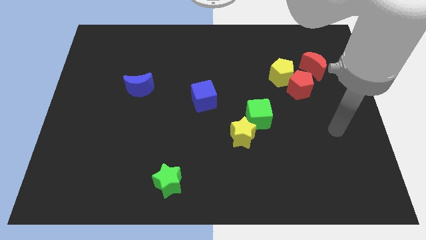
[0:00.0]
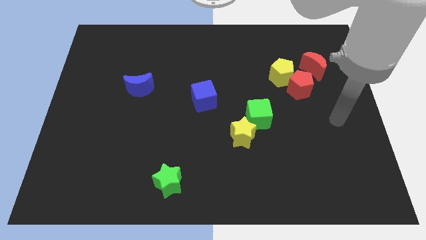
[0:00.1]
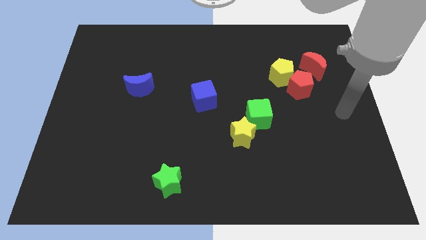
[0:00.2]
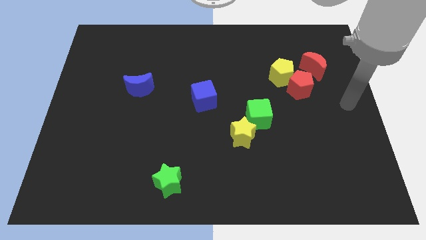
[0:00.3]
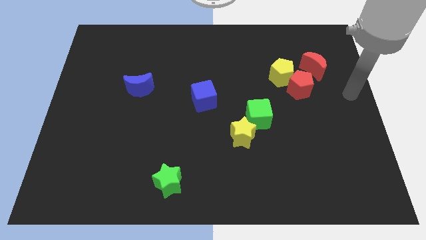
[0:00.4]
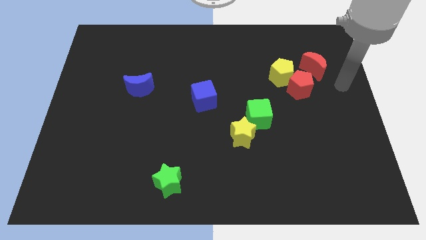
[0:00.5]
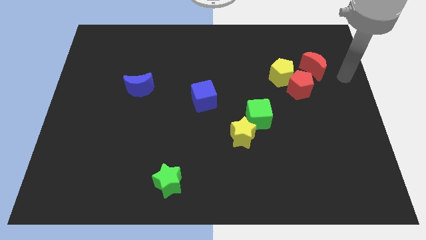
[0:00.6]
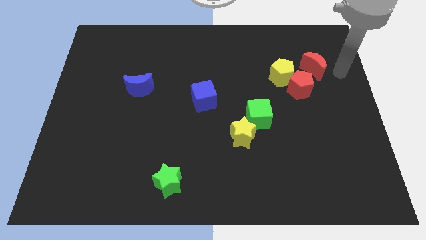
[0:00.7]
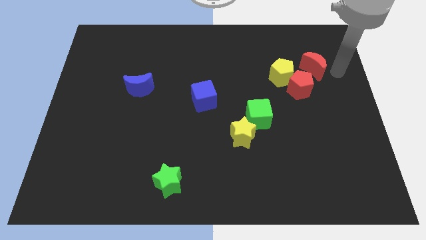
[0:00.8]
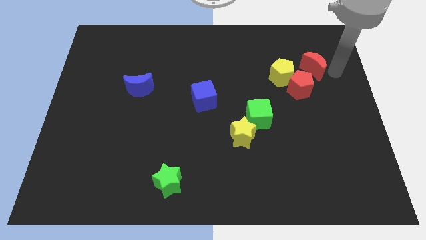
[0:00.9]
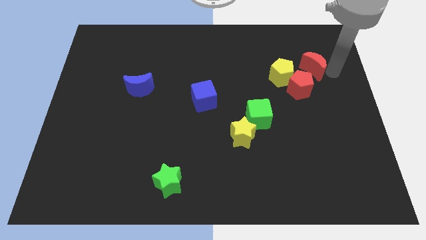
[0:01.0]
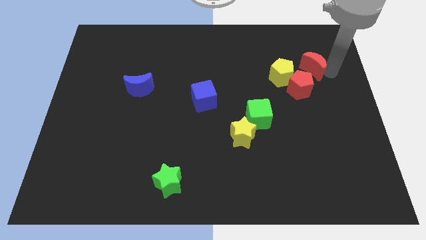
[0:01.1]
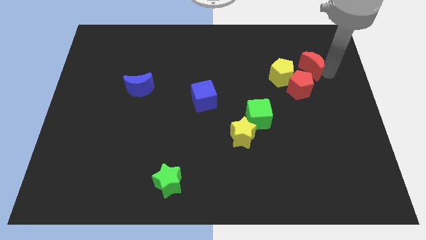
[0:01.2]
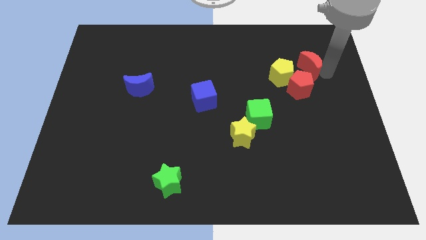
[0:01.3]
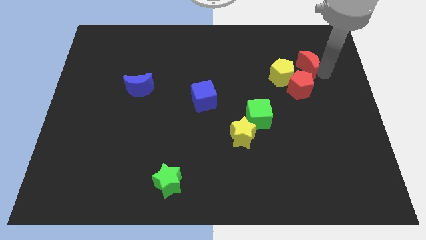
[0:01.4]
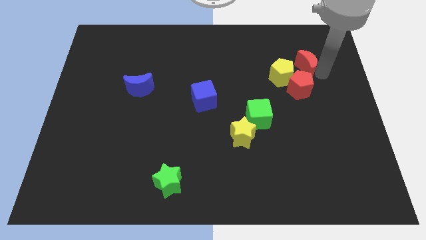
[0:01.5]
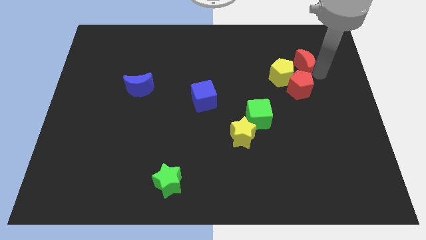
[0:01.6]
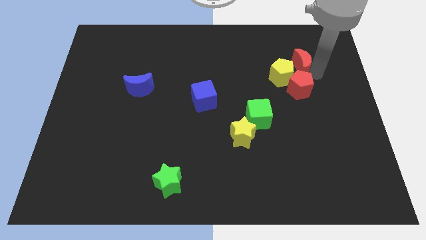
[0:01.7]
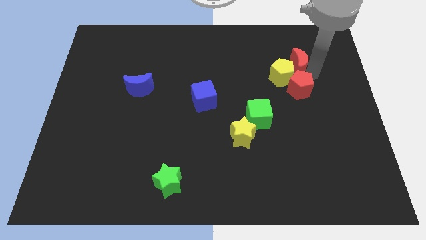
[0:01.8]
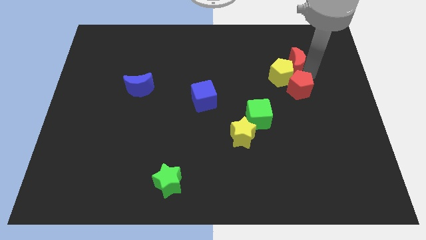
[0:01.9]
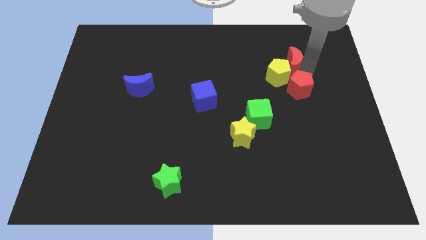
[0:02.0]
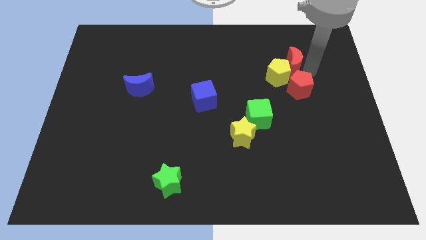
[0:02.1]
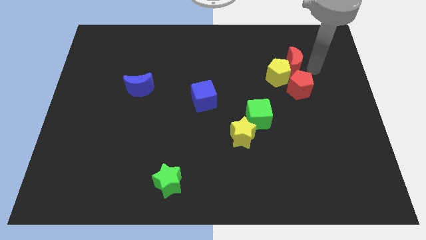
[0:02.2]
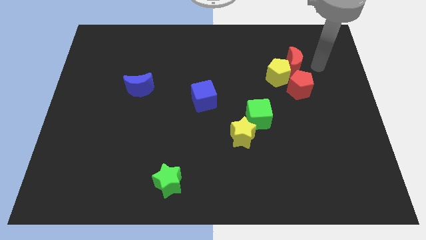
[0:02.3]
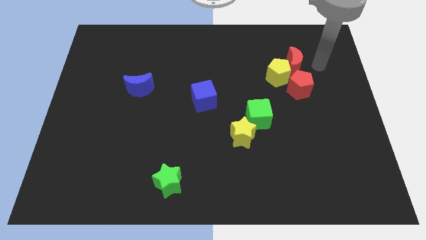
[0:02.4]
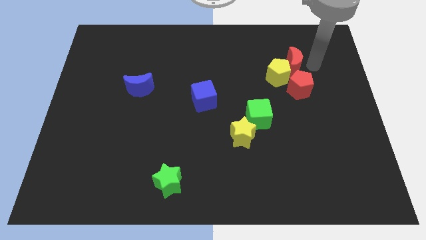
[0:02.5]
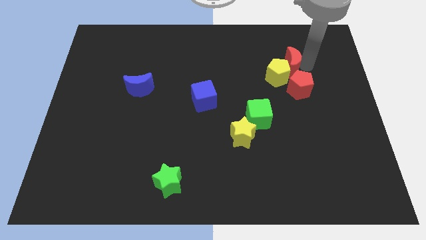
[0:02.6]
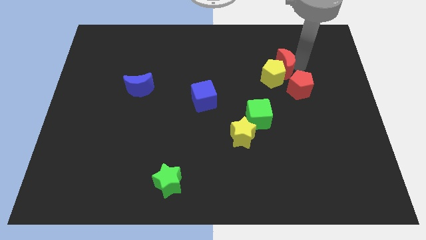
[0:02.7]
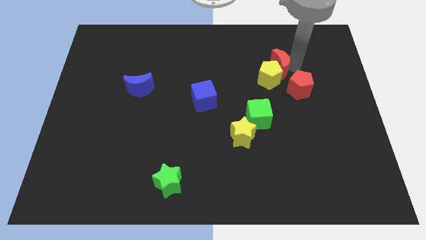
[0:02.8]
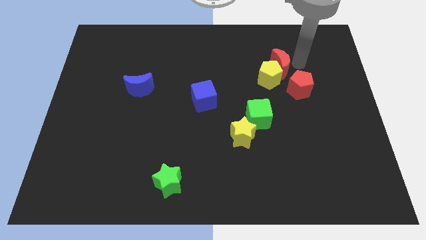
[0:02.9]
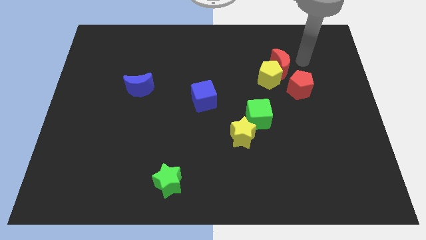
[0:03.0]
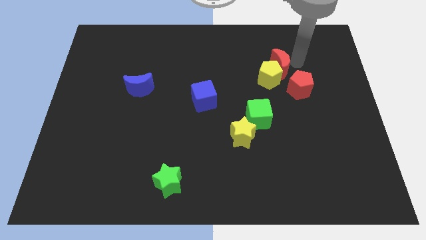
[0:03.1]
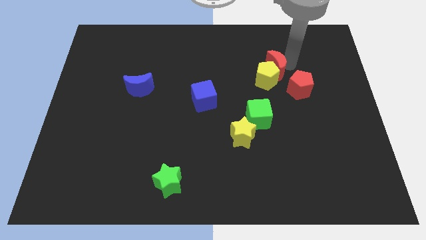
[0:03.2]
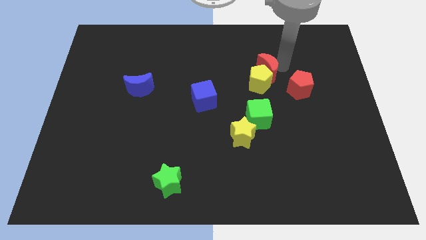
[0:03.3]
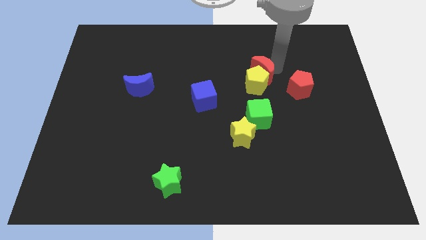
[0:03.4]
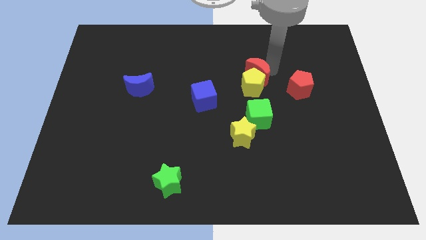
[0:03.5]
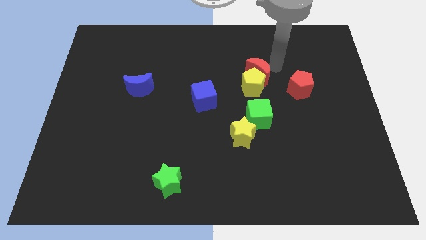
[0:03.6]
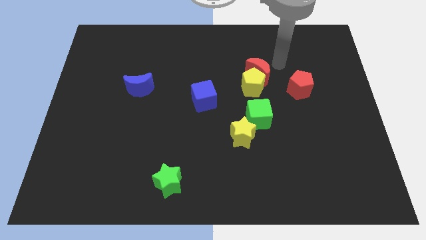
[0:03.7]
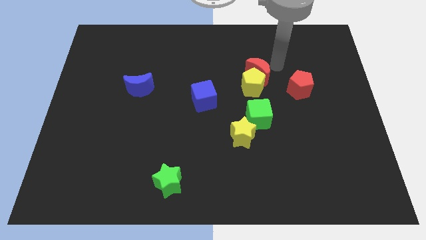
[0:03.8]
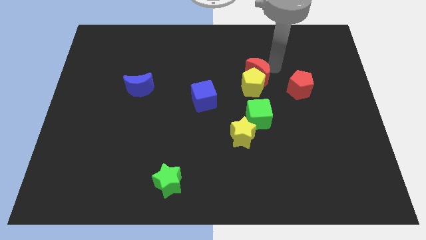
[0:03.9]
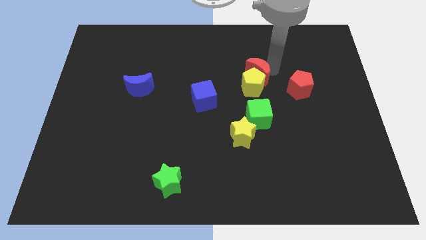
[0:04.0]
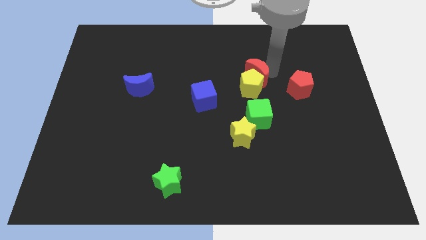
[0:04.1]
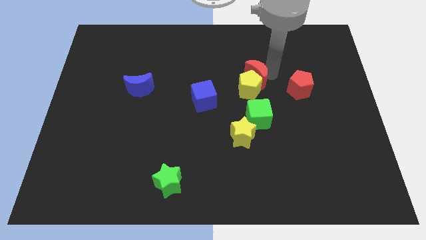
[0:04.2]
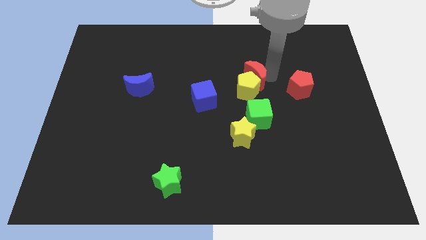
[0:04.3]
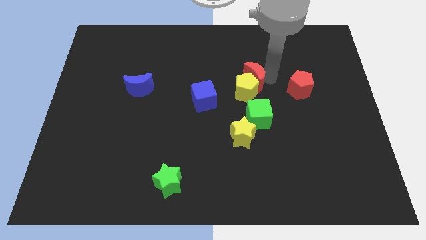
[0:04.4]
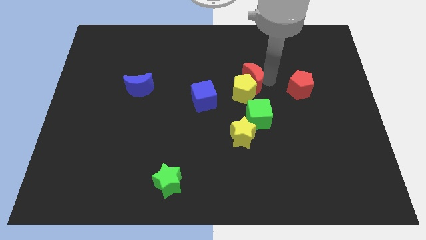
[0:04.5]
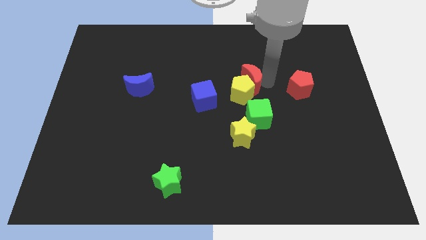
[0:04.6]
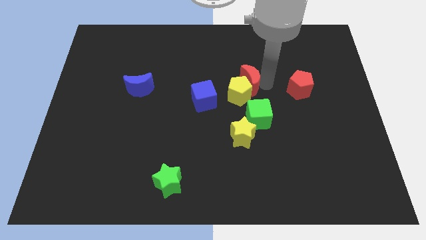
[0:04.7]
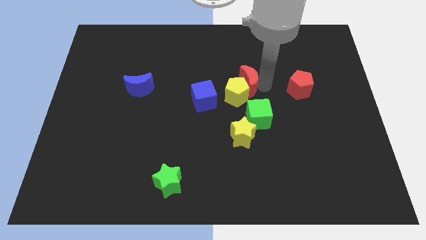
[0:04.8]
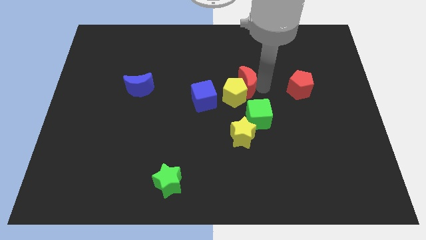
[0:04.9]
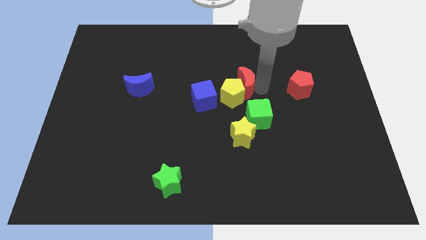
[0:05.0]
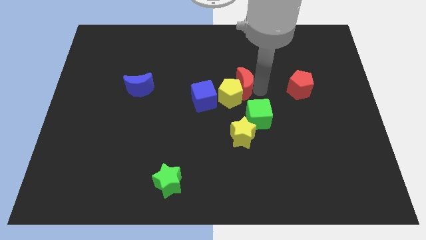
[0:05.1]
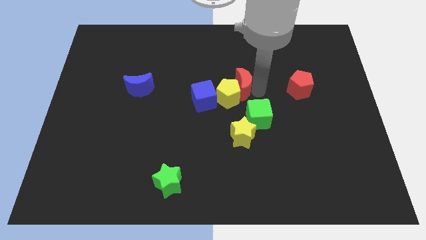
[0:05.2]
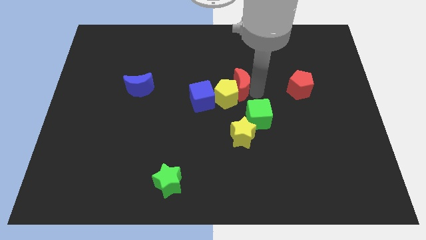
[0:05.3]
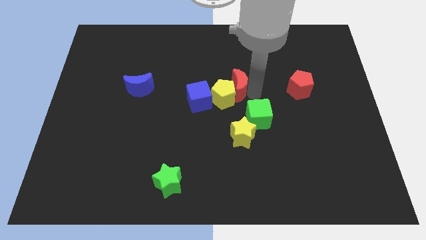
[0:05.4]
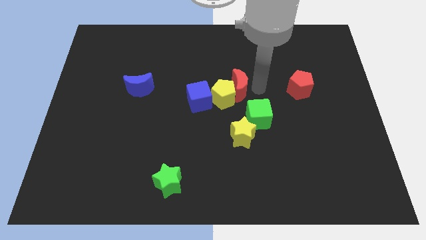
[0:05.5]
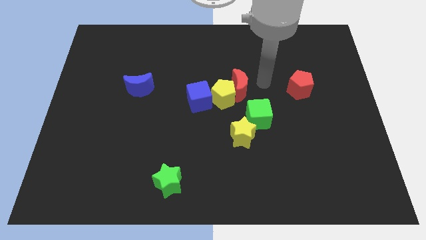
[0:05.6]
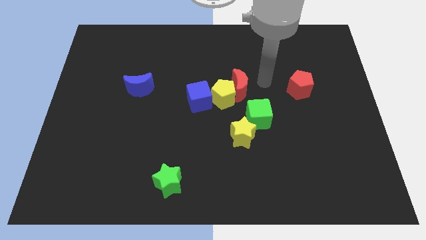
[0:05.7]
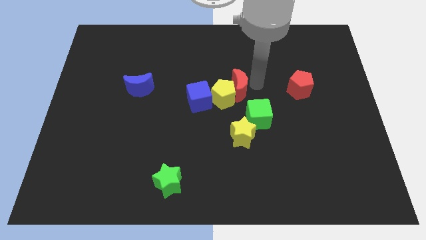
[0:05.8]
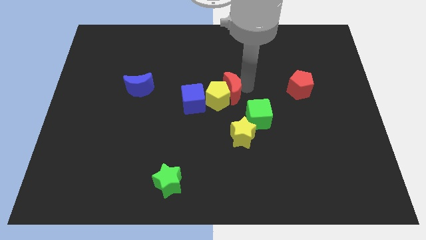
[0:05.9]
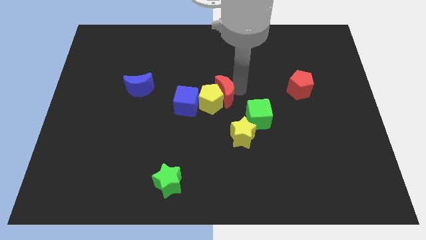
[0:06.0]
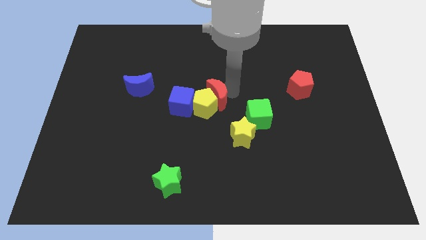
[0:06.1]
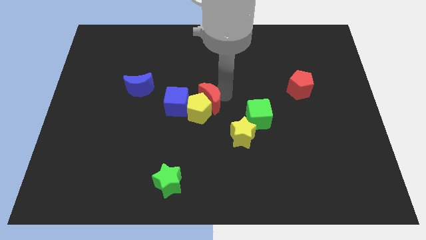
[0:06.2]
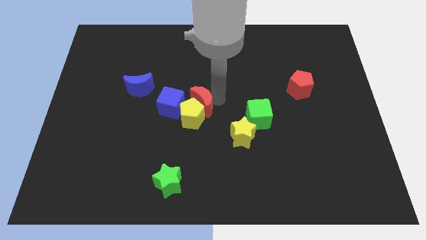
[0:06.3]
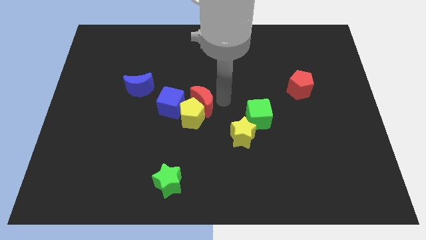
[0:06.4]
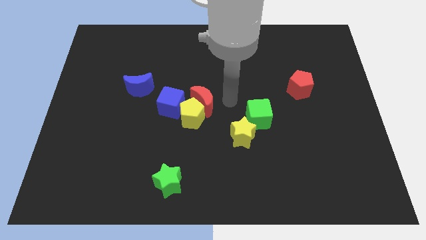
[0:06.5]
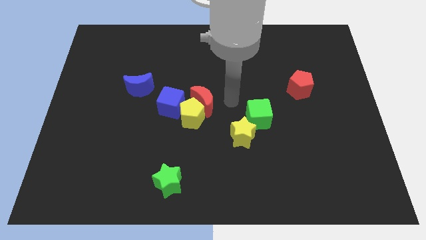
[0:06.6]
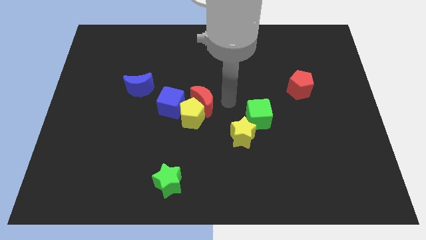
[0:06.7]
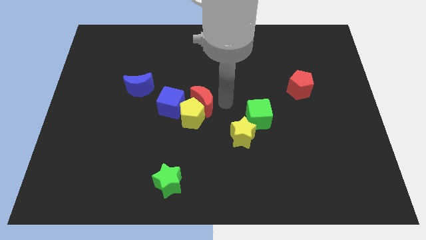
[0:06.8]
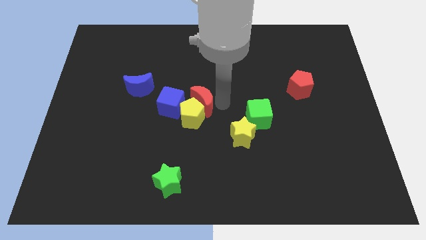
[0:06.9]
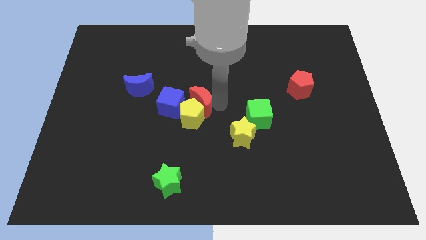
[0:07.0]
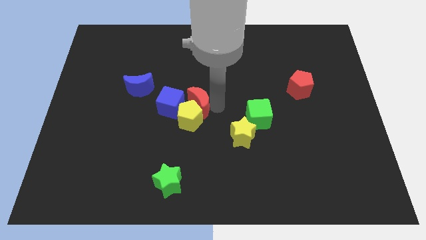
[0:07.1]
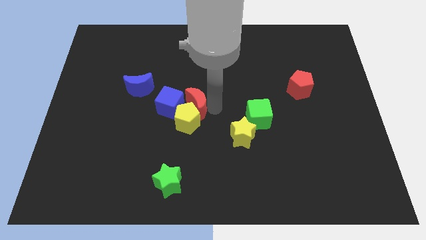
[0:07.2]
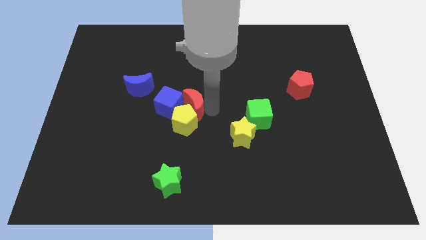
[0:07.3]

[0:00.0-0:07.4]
move the red moon next to the blue cube

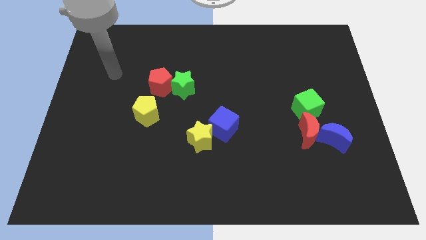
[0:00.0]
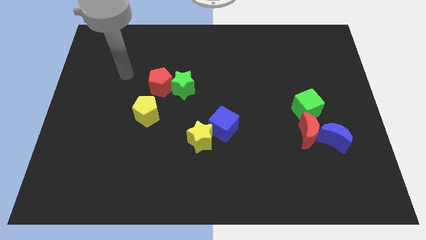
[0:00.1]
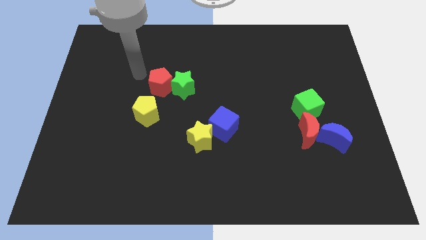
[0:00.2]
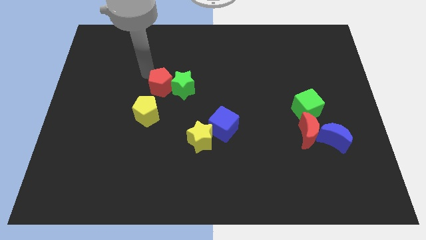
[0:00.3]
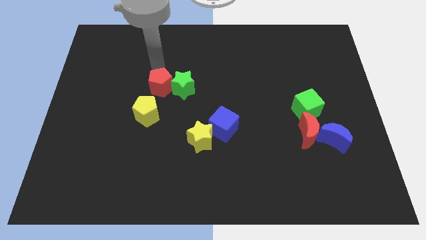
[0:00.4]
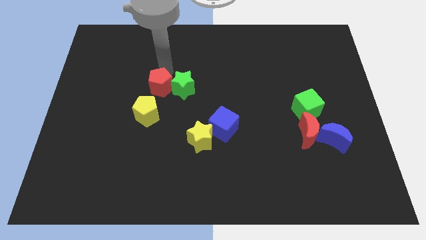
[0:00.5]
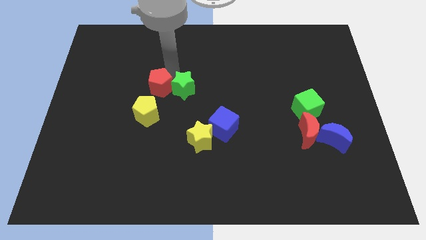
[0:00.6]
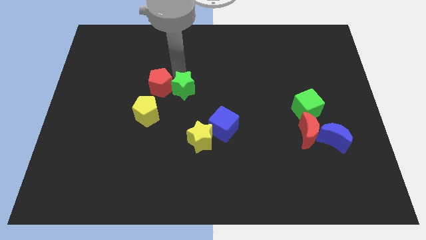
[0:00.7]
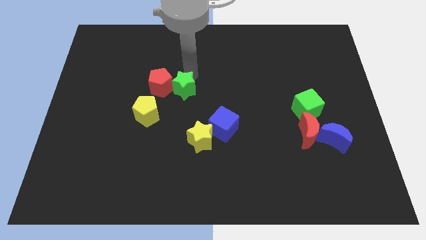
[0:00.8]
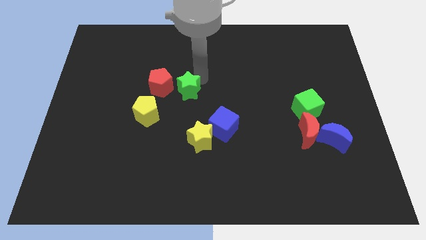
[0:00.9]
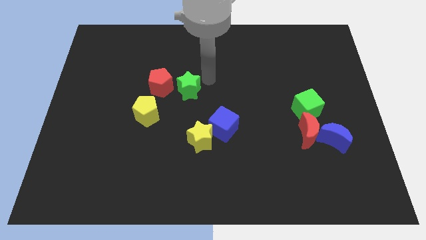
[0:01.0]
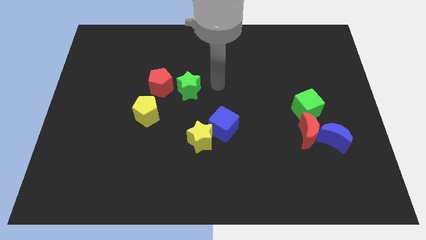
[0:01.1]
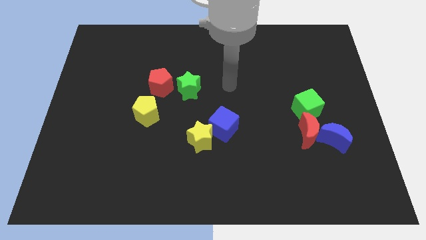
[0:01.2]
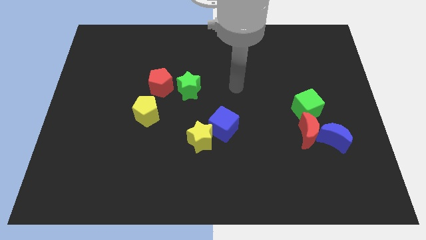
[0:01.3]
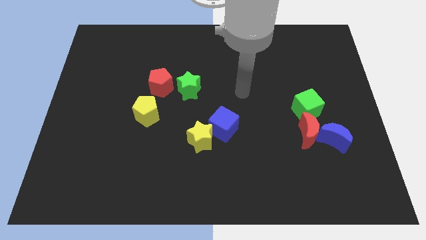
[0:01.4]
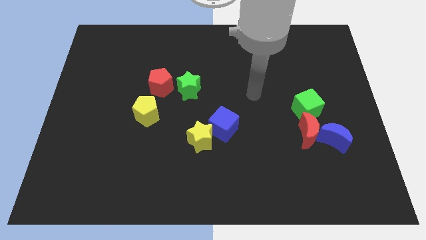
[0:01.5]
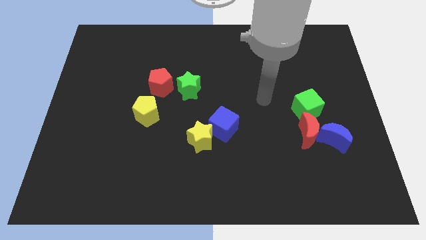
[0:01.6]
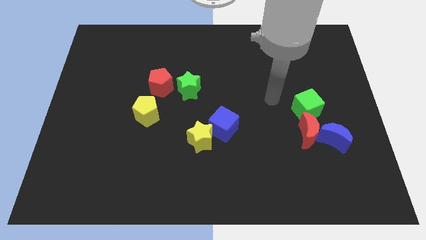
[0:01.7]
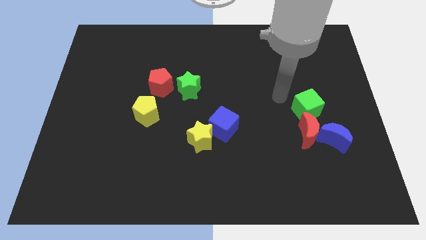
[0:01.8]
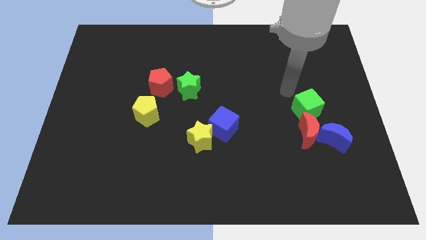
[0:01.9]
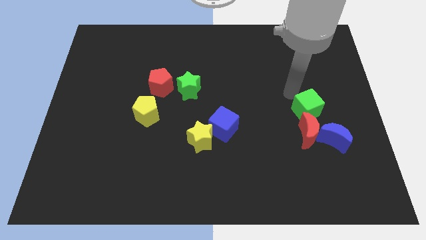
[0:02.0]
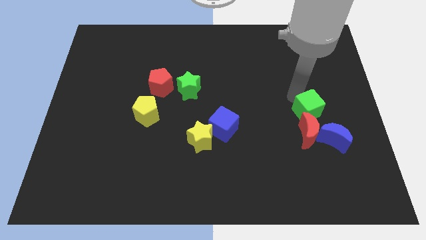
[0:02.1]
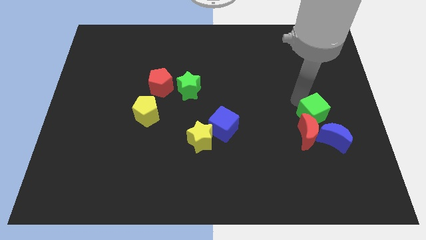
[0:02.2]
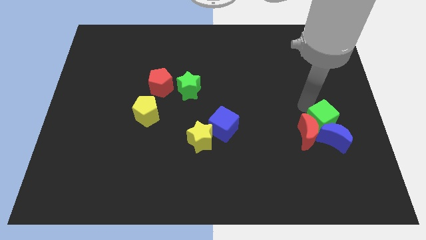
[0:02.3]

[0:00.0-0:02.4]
put the green cube towards the blue moon
